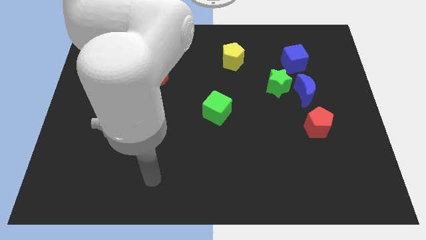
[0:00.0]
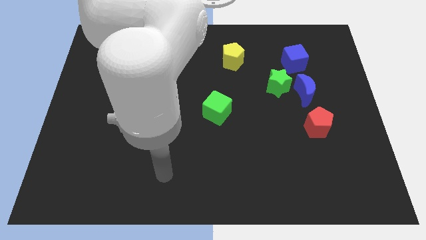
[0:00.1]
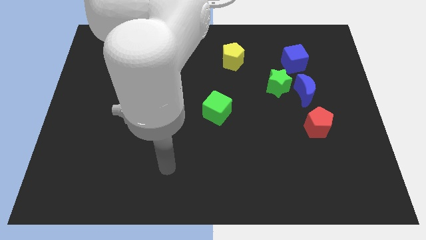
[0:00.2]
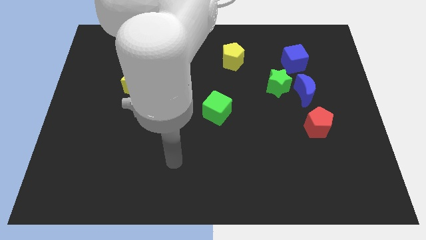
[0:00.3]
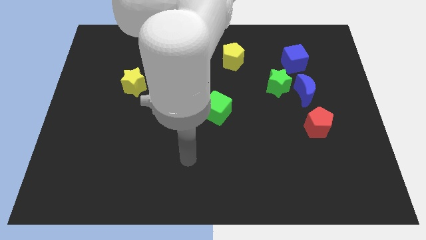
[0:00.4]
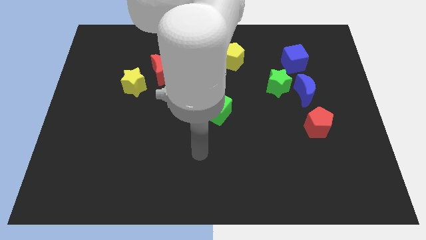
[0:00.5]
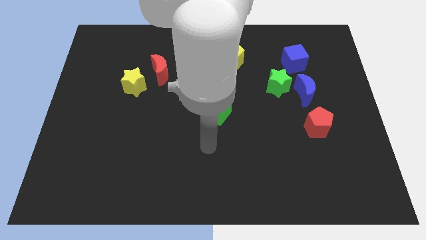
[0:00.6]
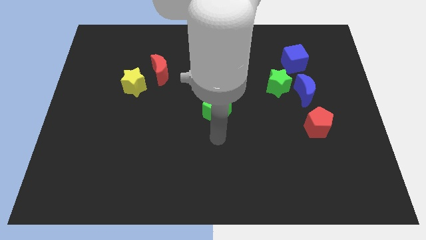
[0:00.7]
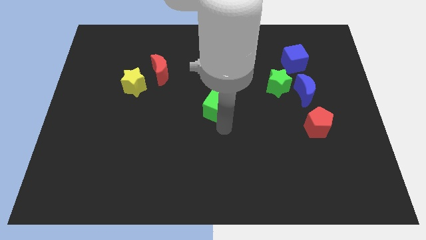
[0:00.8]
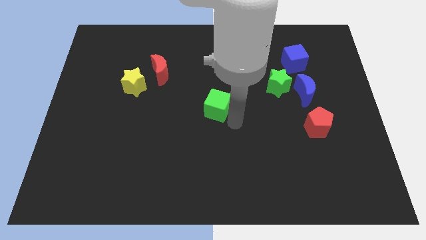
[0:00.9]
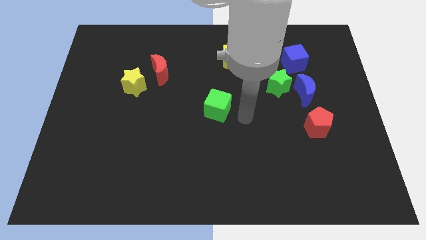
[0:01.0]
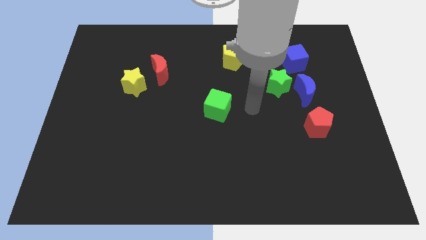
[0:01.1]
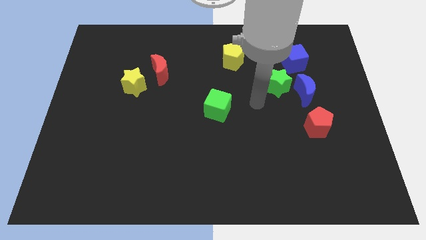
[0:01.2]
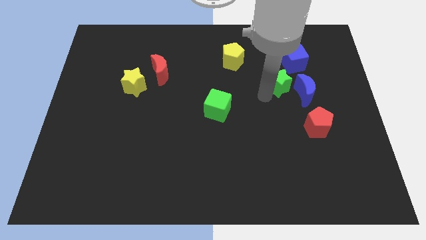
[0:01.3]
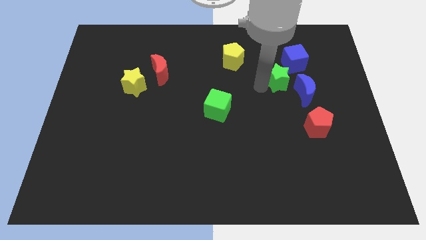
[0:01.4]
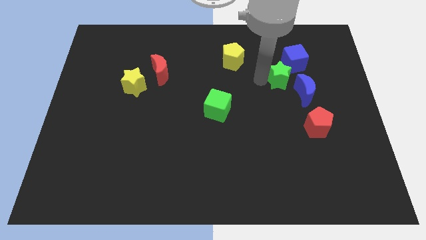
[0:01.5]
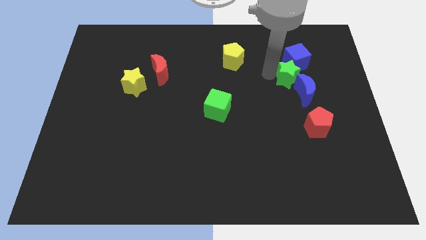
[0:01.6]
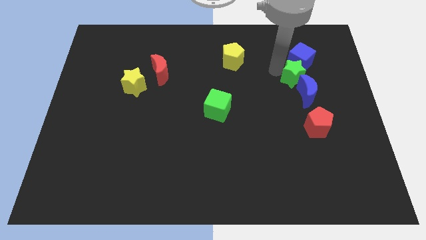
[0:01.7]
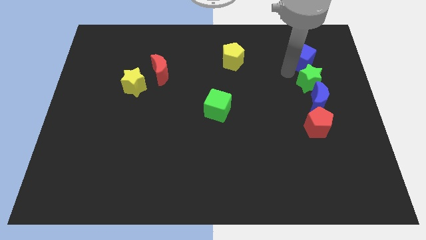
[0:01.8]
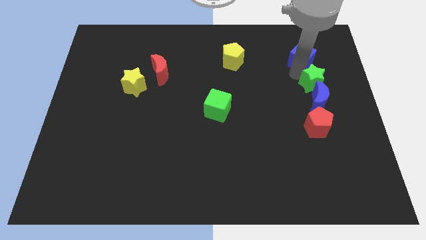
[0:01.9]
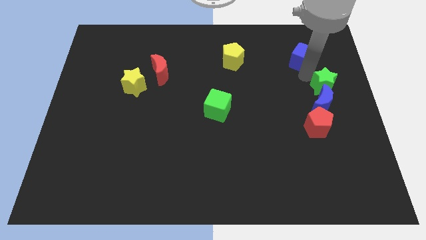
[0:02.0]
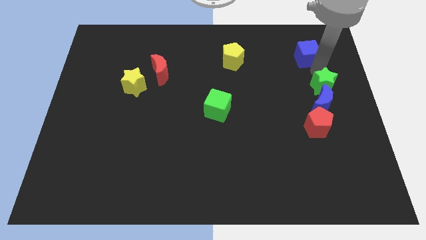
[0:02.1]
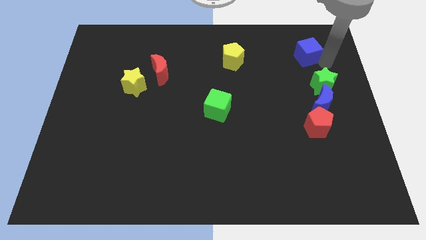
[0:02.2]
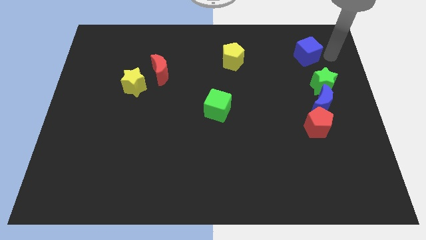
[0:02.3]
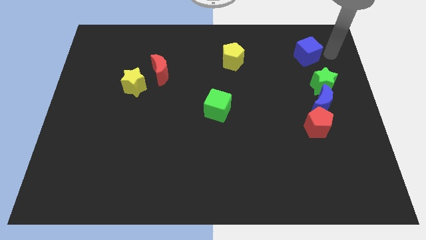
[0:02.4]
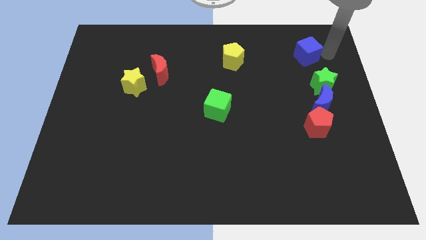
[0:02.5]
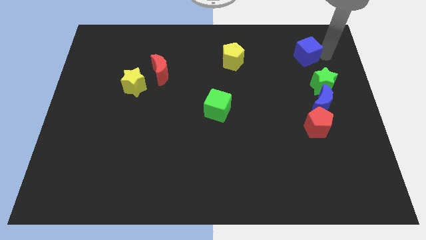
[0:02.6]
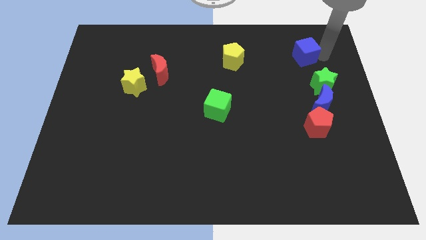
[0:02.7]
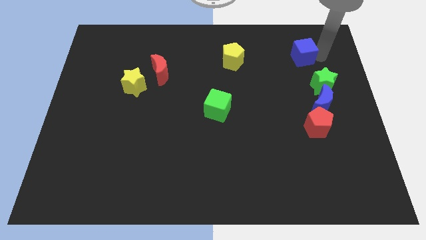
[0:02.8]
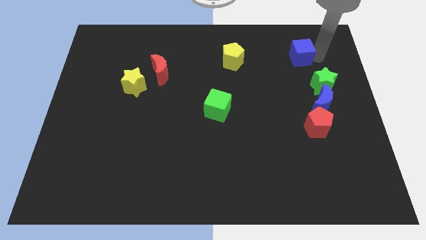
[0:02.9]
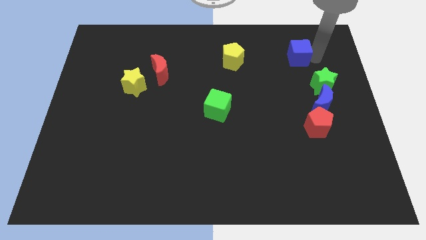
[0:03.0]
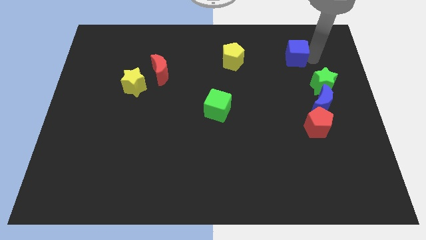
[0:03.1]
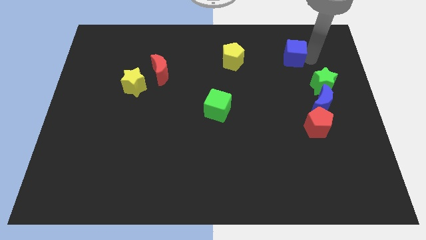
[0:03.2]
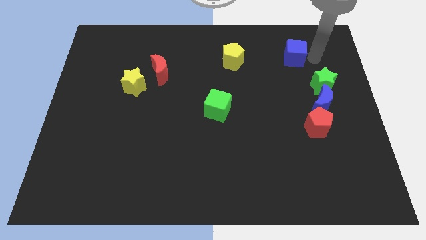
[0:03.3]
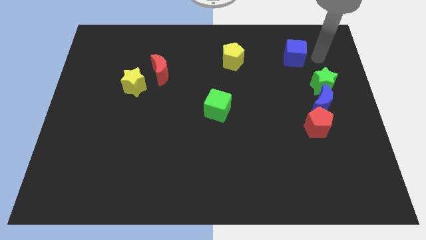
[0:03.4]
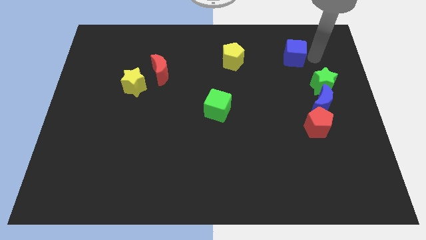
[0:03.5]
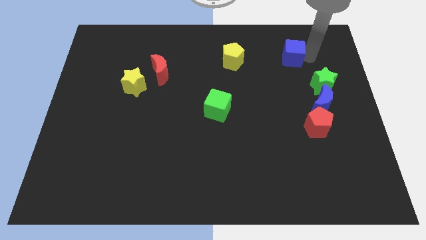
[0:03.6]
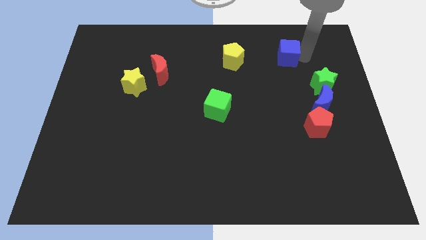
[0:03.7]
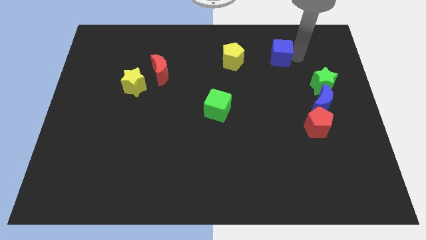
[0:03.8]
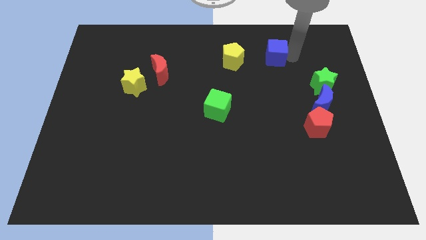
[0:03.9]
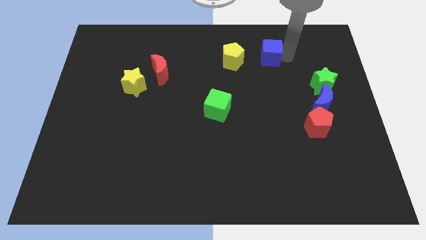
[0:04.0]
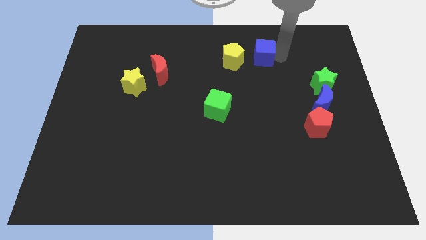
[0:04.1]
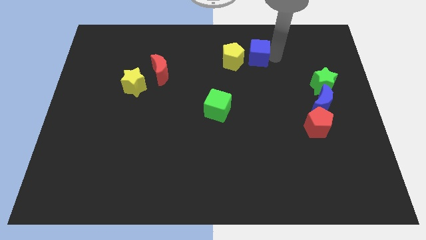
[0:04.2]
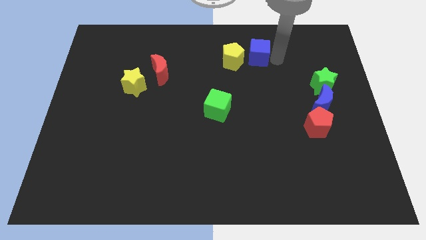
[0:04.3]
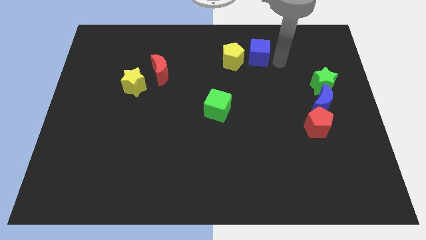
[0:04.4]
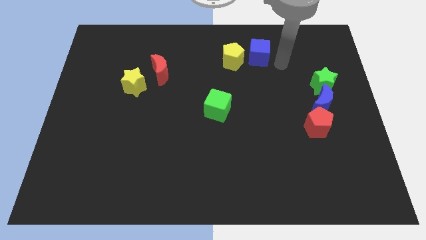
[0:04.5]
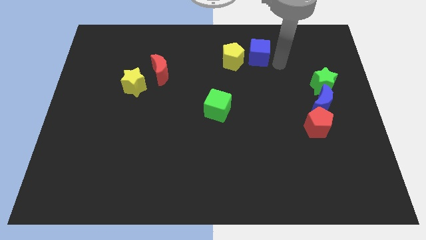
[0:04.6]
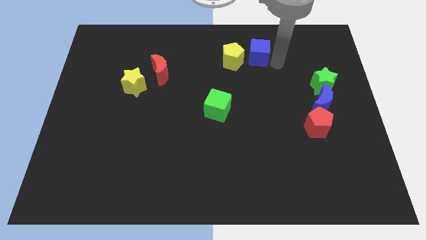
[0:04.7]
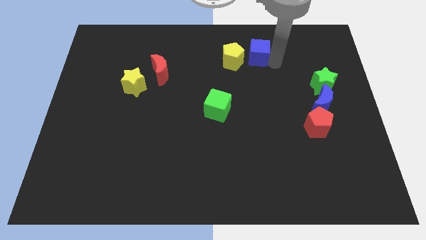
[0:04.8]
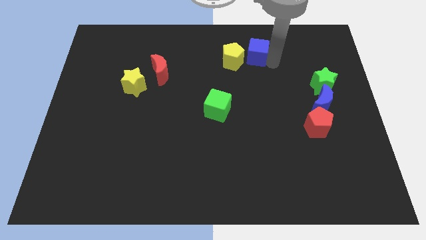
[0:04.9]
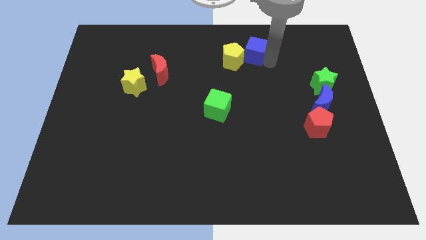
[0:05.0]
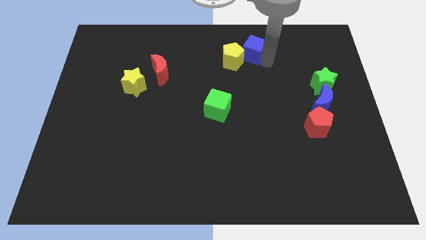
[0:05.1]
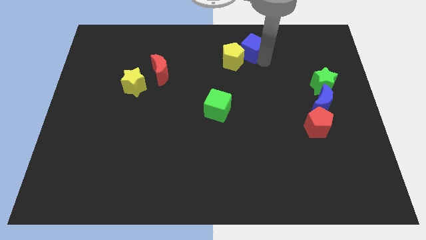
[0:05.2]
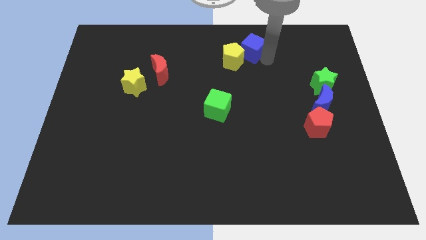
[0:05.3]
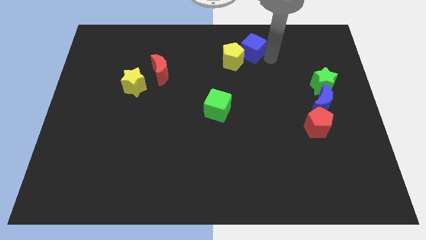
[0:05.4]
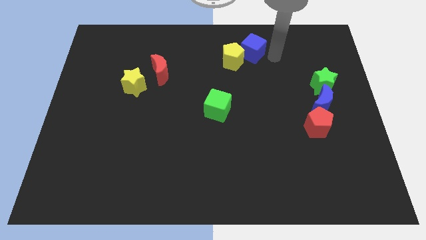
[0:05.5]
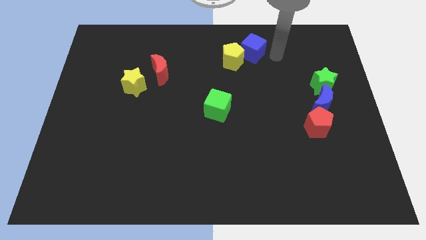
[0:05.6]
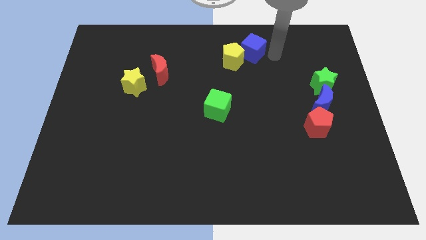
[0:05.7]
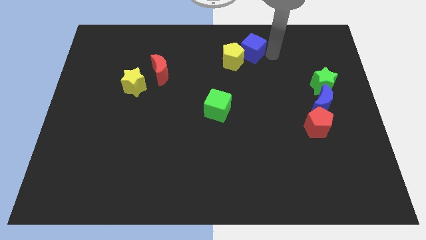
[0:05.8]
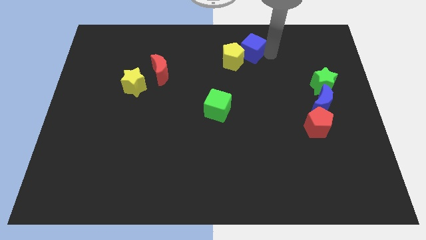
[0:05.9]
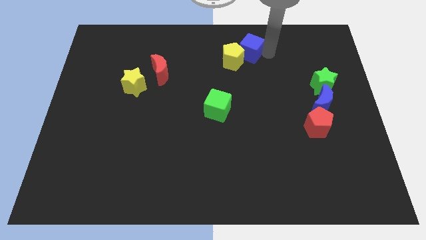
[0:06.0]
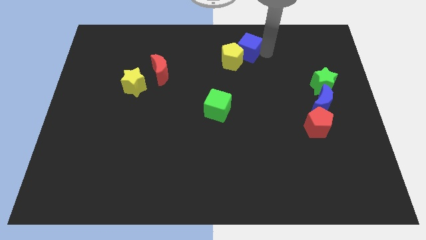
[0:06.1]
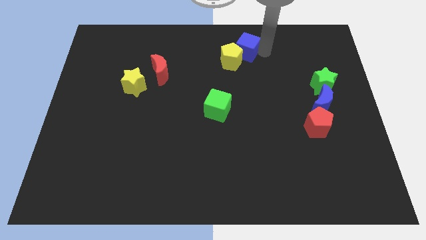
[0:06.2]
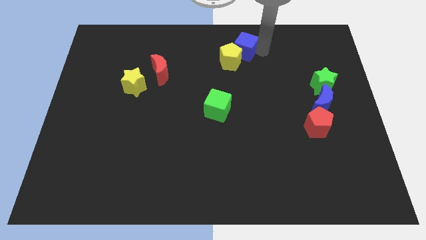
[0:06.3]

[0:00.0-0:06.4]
put the blue cube to the top
